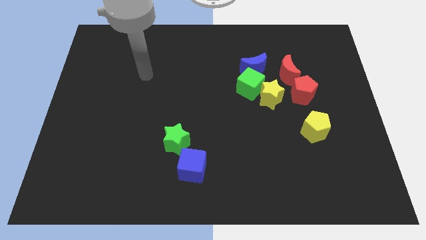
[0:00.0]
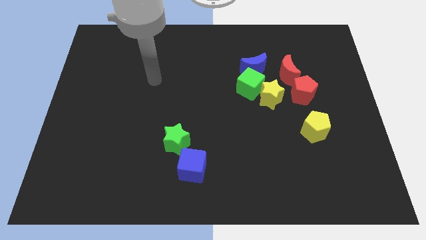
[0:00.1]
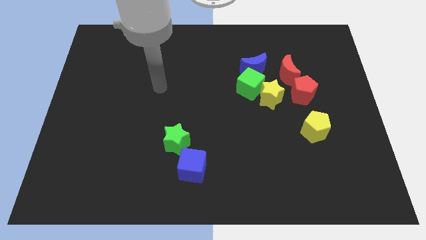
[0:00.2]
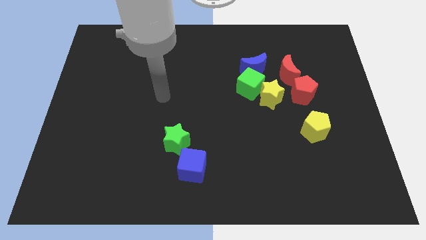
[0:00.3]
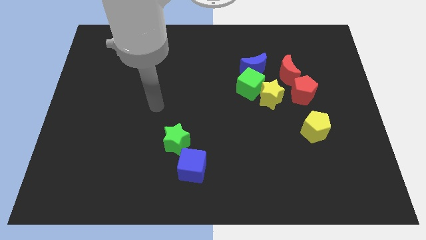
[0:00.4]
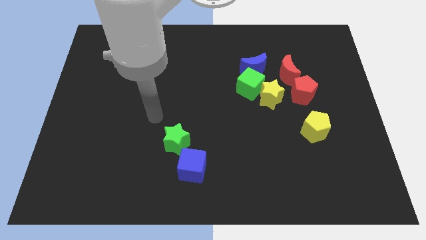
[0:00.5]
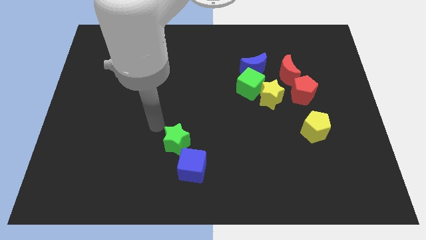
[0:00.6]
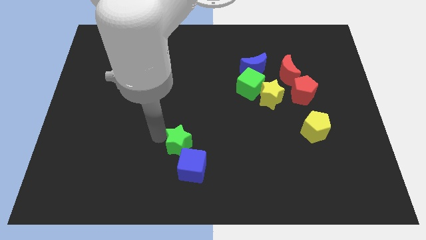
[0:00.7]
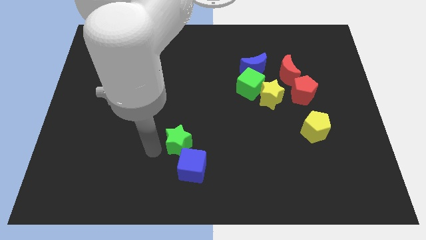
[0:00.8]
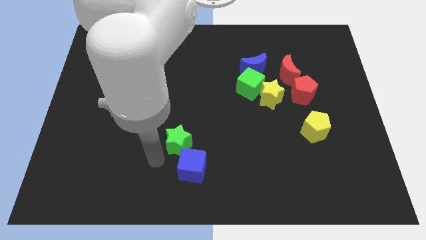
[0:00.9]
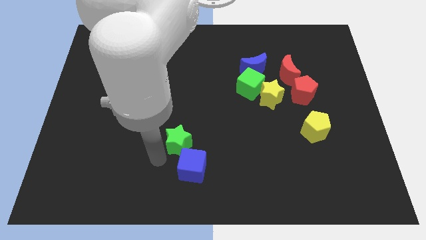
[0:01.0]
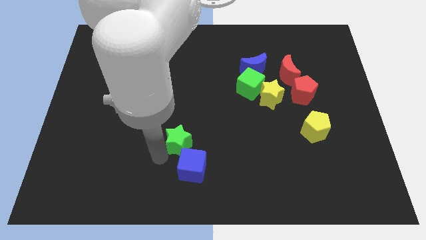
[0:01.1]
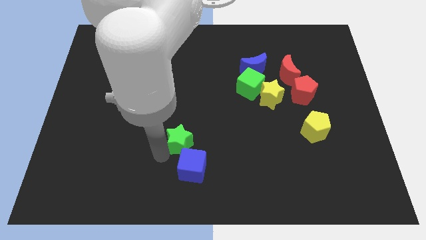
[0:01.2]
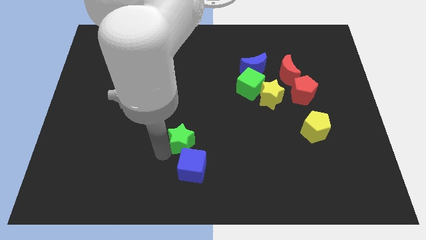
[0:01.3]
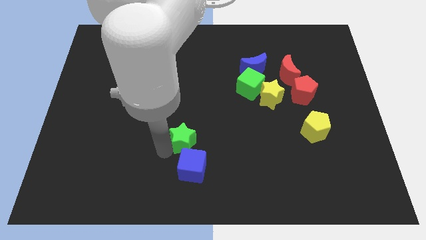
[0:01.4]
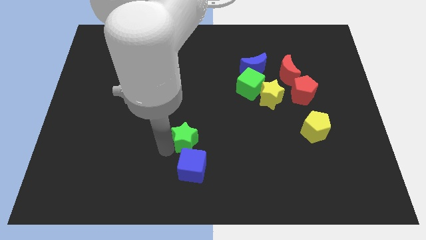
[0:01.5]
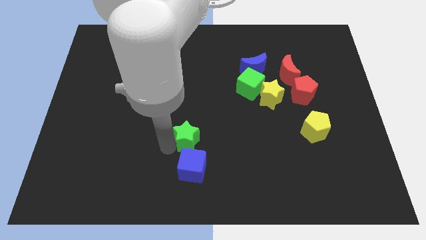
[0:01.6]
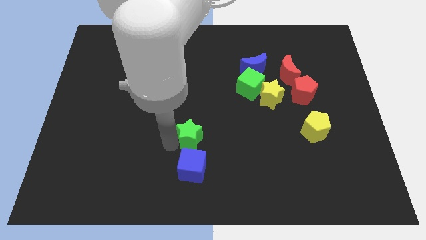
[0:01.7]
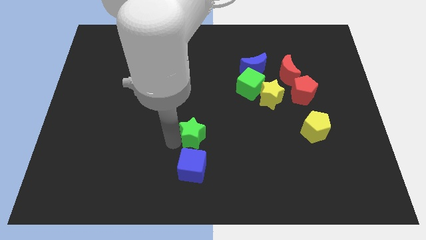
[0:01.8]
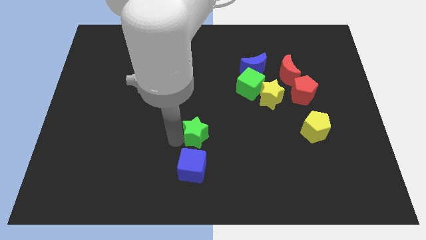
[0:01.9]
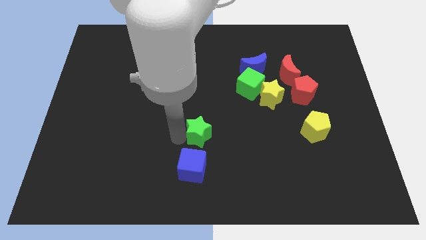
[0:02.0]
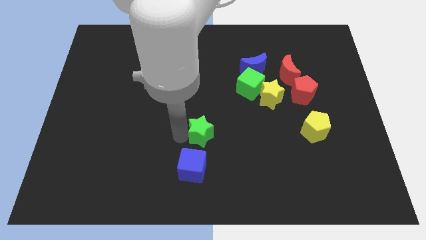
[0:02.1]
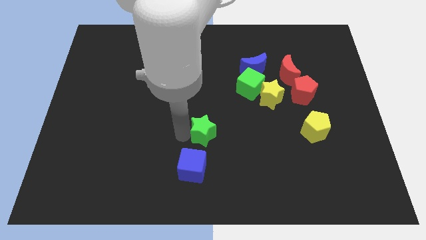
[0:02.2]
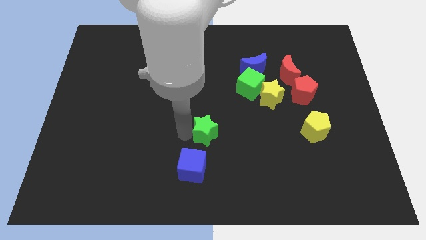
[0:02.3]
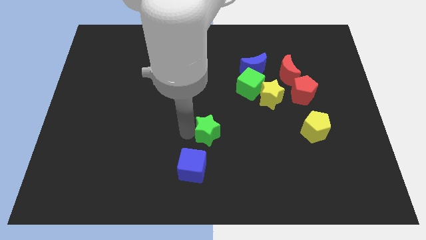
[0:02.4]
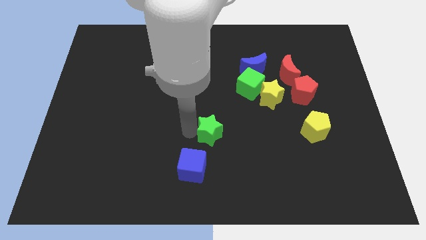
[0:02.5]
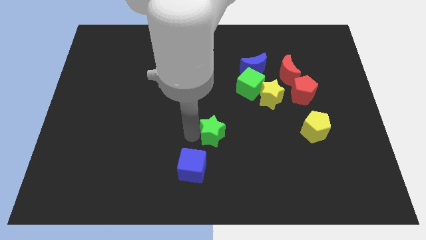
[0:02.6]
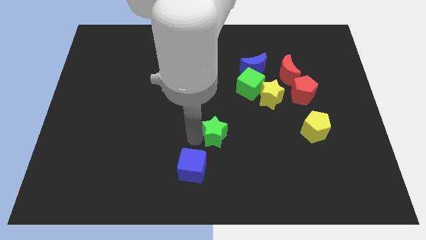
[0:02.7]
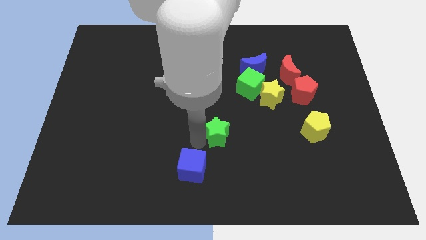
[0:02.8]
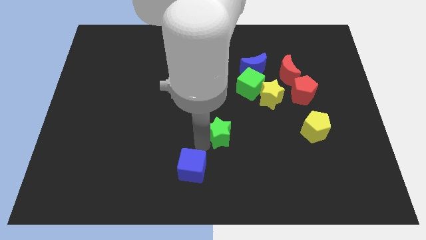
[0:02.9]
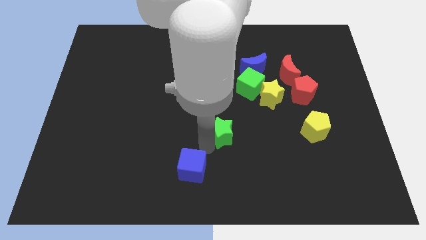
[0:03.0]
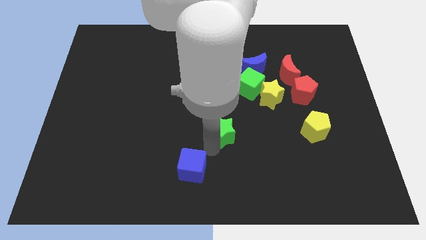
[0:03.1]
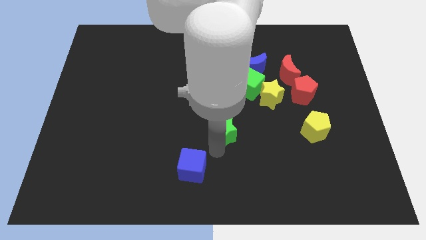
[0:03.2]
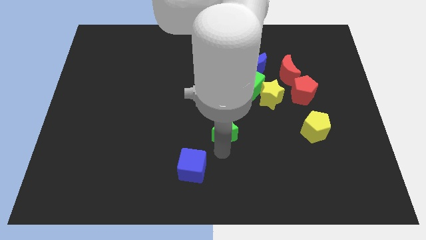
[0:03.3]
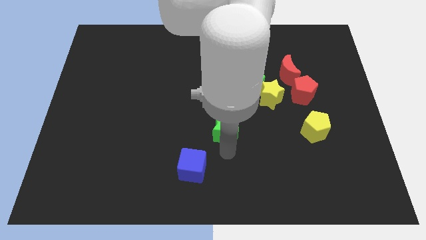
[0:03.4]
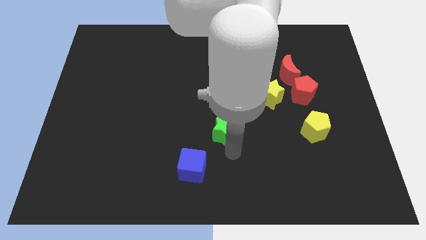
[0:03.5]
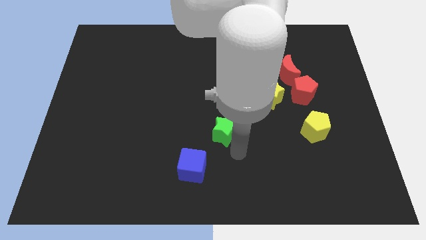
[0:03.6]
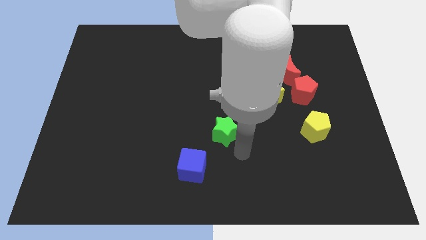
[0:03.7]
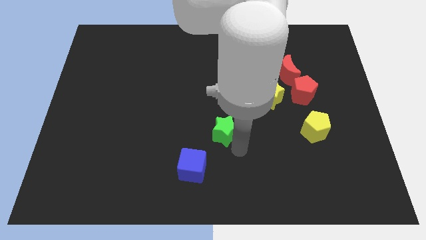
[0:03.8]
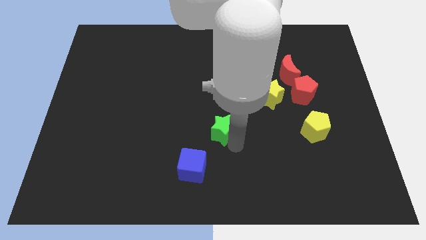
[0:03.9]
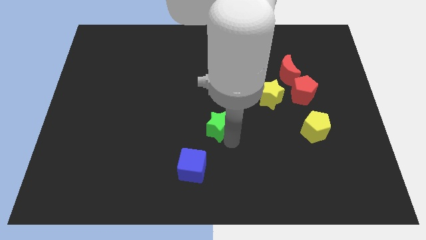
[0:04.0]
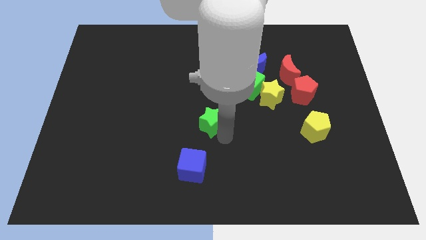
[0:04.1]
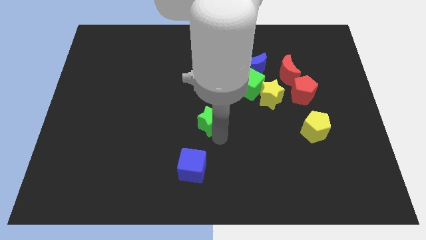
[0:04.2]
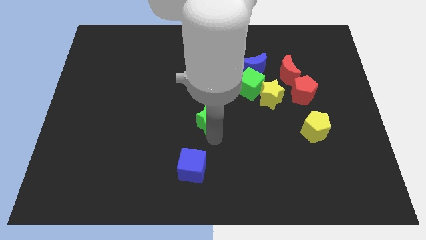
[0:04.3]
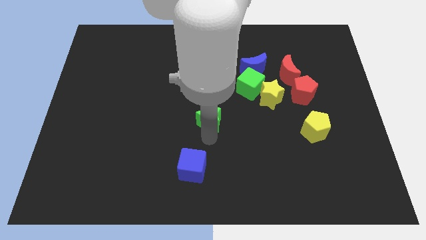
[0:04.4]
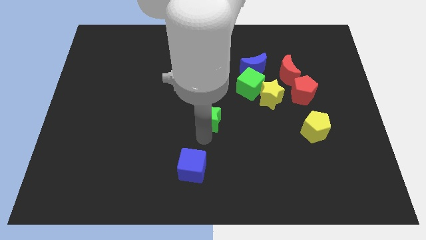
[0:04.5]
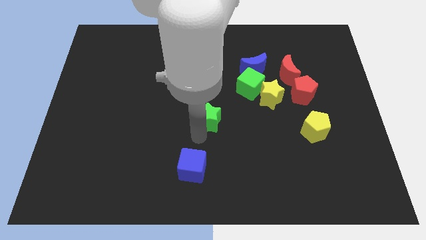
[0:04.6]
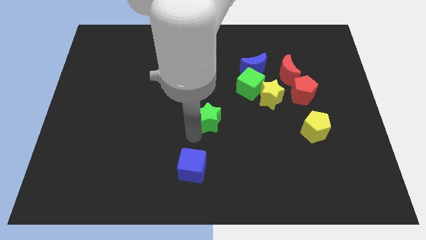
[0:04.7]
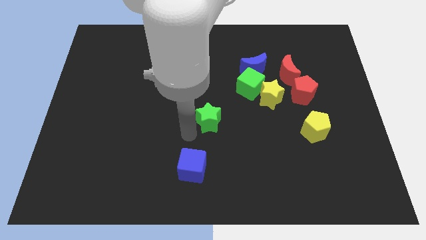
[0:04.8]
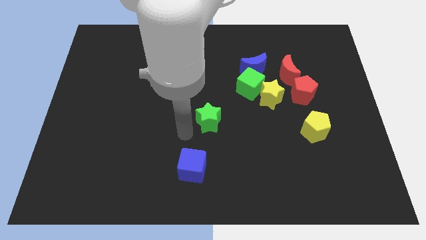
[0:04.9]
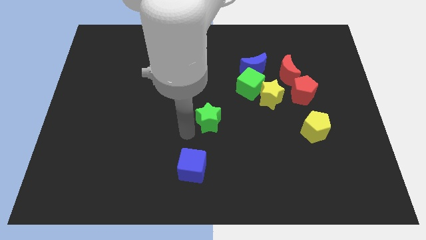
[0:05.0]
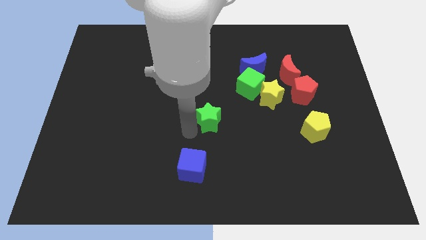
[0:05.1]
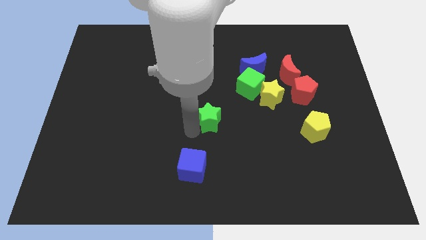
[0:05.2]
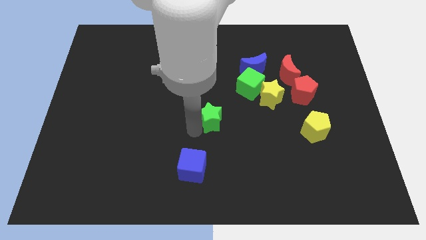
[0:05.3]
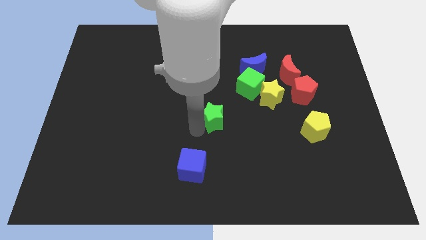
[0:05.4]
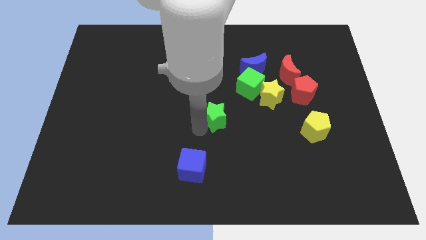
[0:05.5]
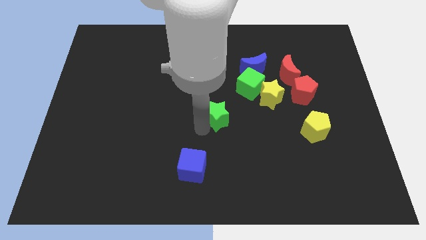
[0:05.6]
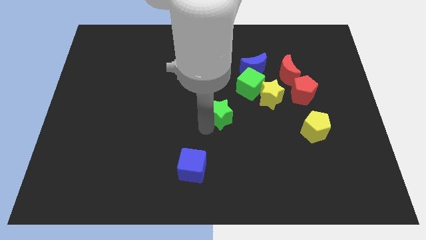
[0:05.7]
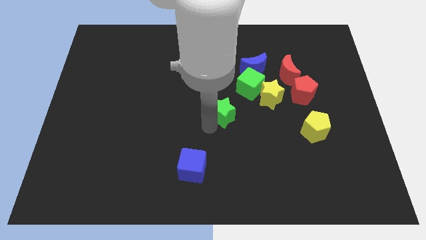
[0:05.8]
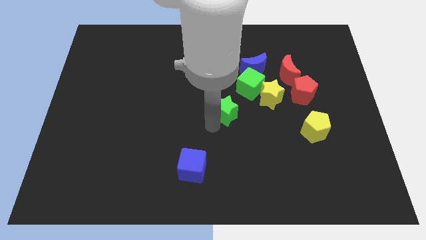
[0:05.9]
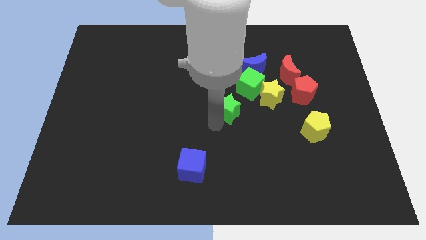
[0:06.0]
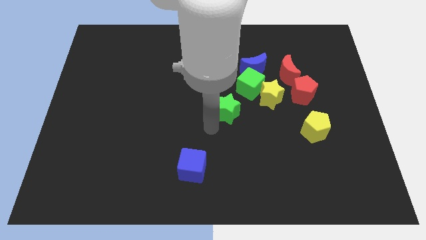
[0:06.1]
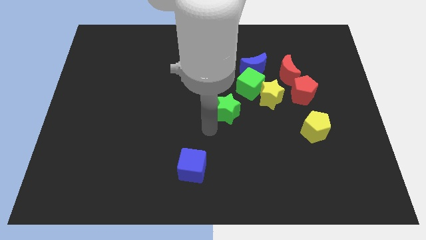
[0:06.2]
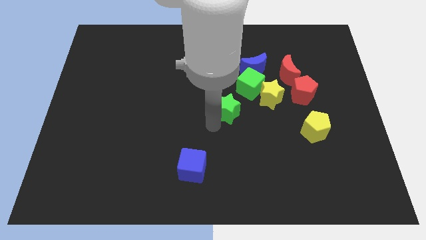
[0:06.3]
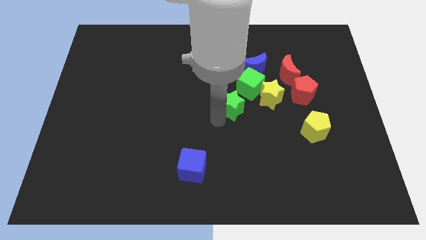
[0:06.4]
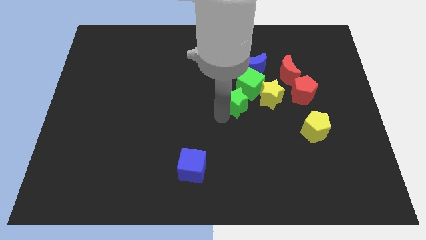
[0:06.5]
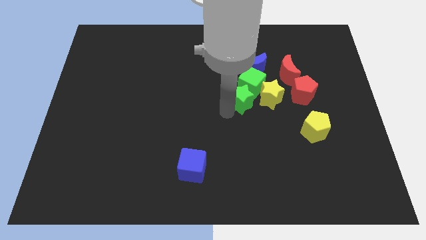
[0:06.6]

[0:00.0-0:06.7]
put the green star towards the green cube
